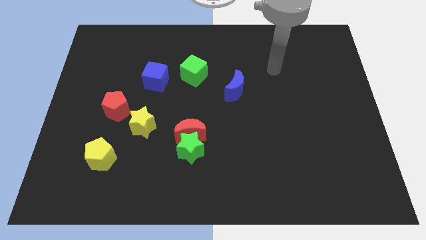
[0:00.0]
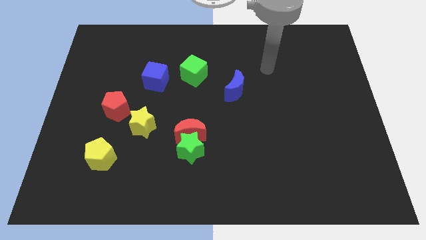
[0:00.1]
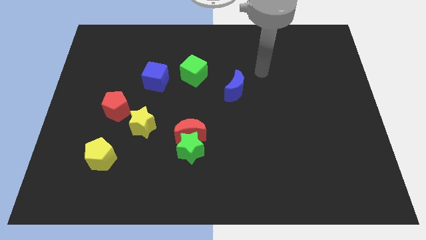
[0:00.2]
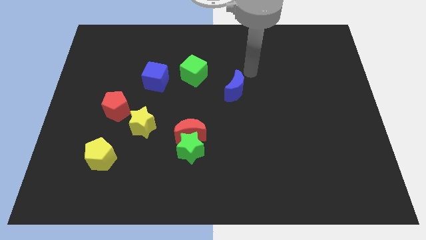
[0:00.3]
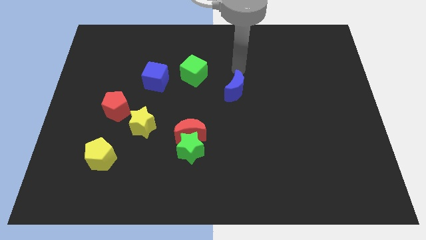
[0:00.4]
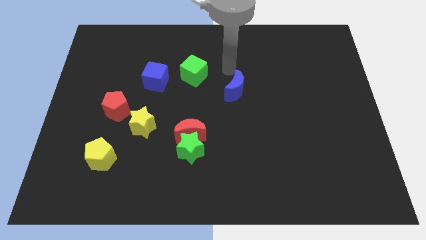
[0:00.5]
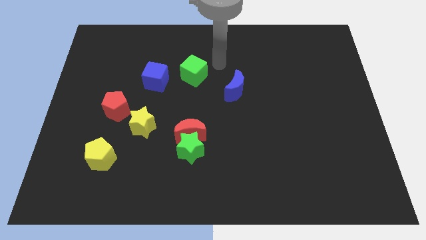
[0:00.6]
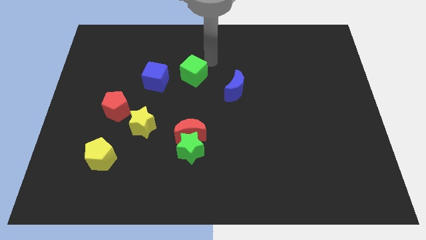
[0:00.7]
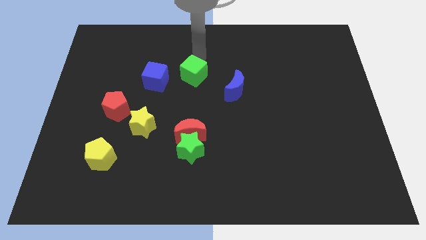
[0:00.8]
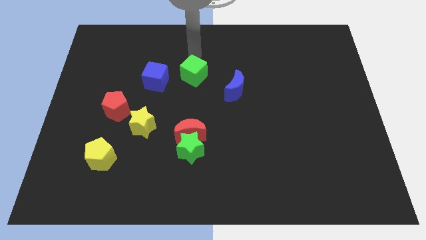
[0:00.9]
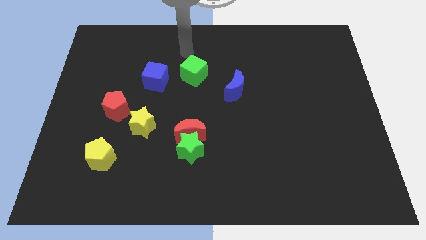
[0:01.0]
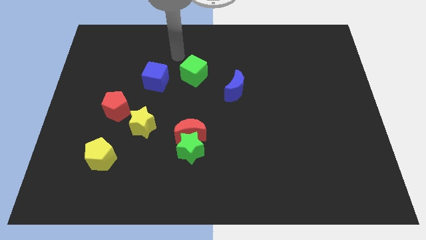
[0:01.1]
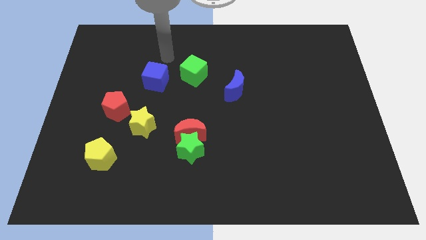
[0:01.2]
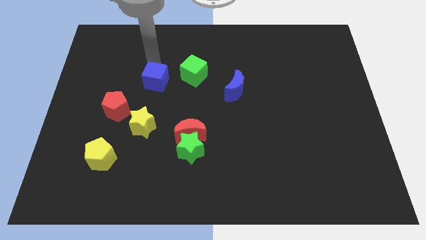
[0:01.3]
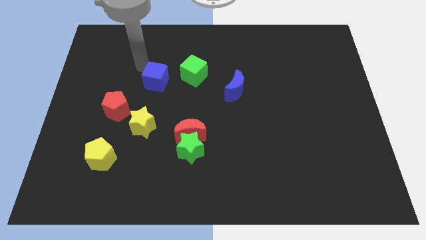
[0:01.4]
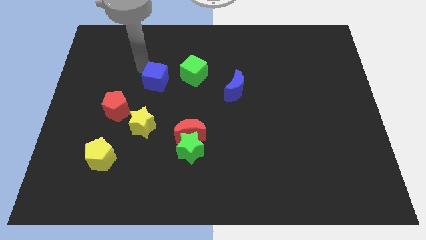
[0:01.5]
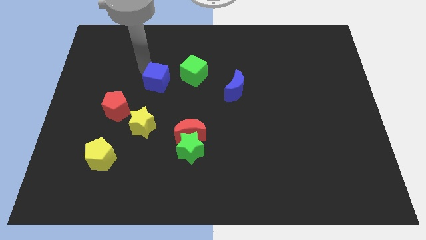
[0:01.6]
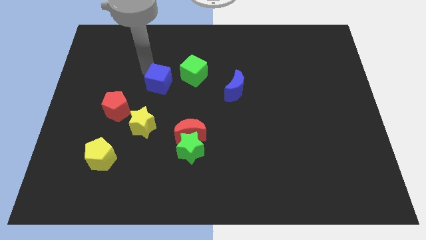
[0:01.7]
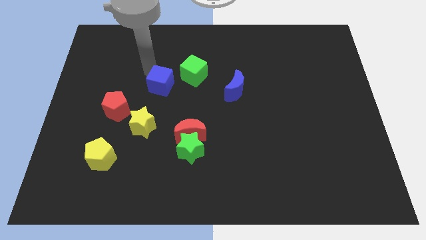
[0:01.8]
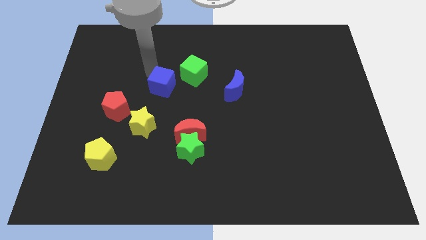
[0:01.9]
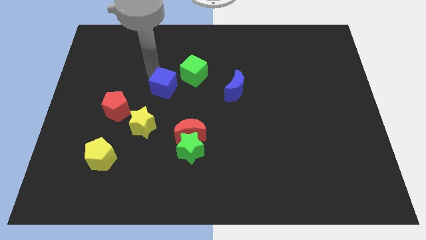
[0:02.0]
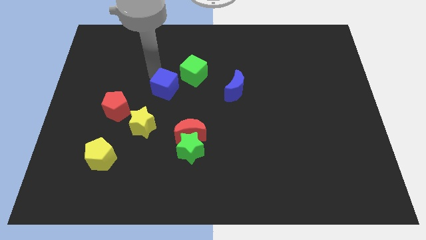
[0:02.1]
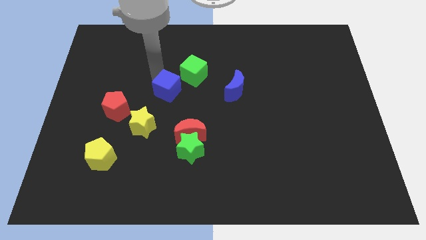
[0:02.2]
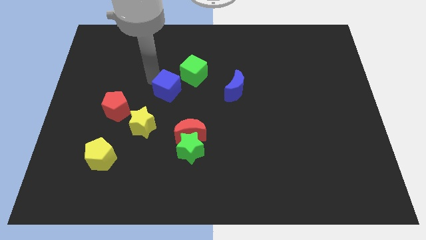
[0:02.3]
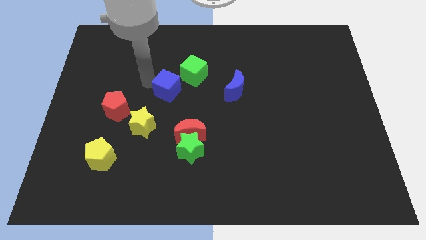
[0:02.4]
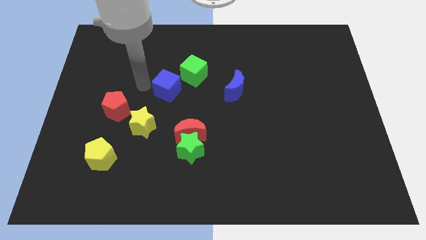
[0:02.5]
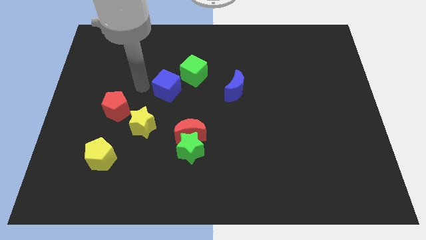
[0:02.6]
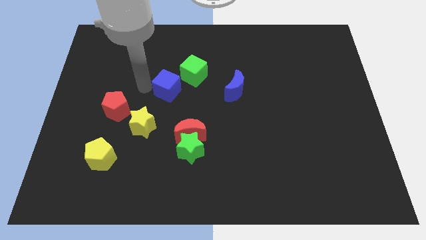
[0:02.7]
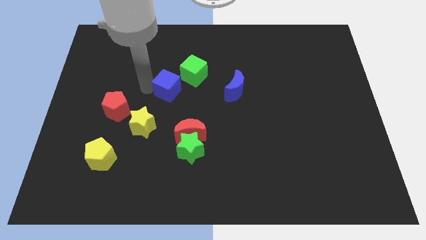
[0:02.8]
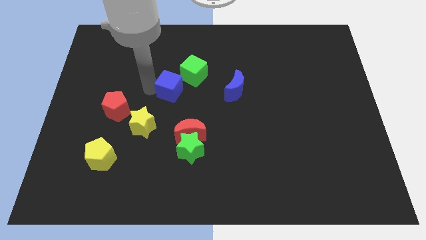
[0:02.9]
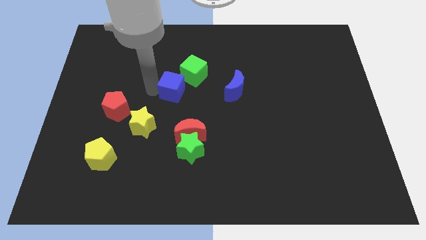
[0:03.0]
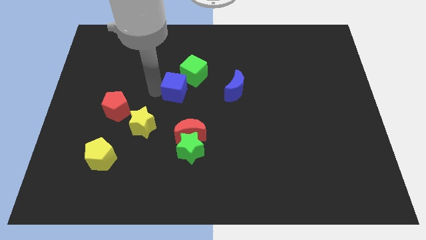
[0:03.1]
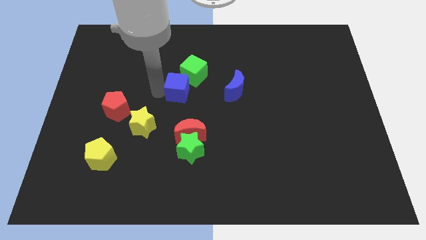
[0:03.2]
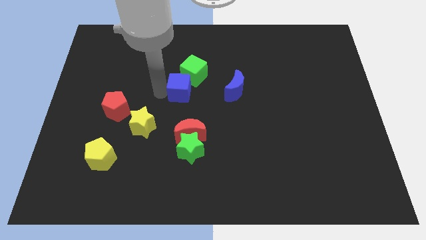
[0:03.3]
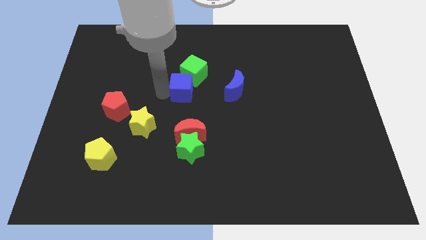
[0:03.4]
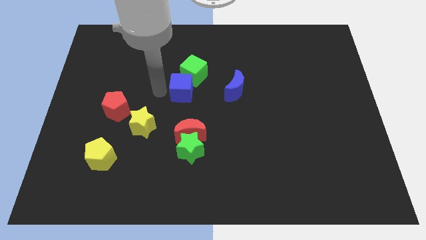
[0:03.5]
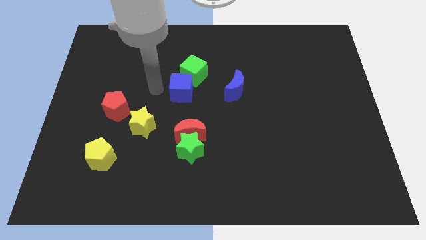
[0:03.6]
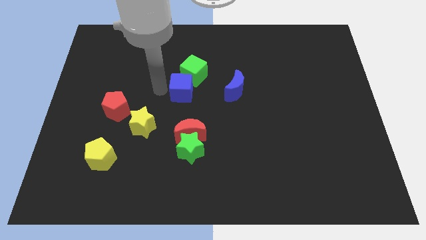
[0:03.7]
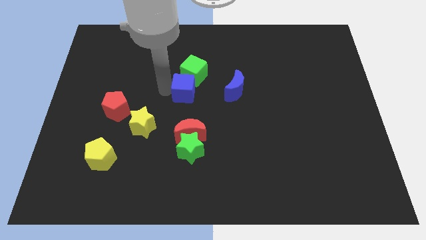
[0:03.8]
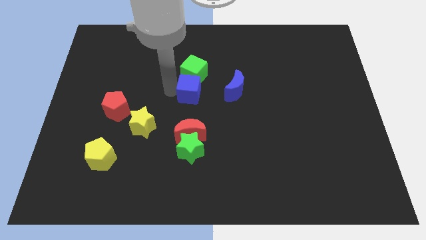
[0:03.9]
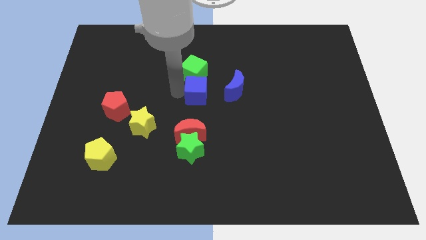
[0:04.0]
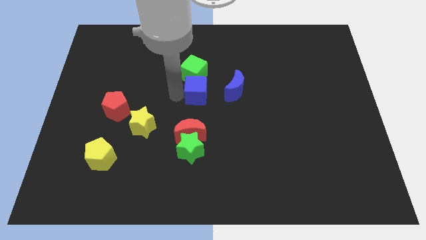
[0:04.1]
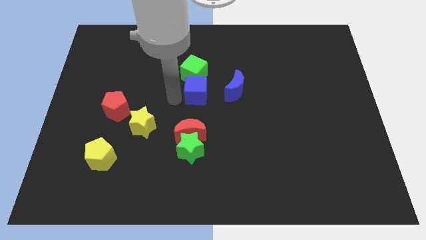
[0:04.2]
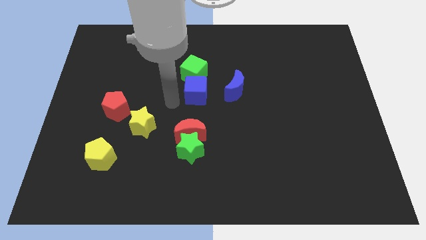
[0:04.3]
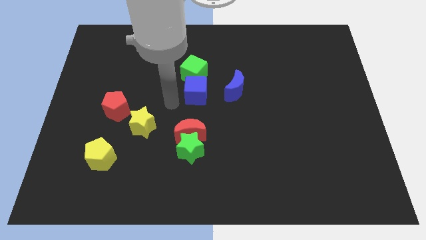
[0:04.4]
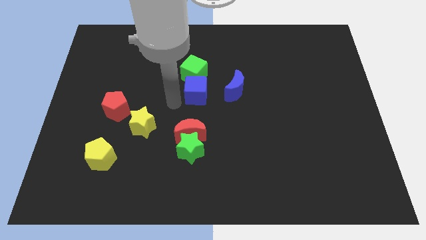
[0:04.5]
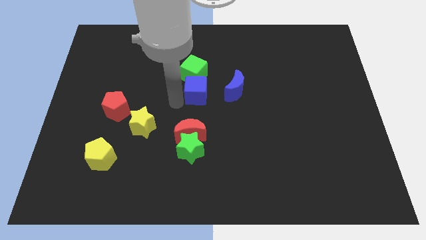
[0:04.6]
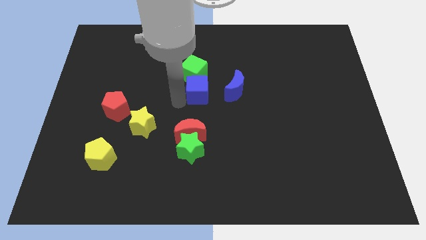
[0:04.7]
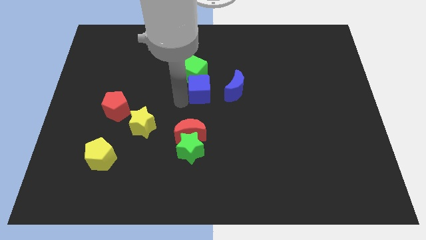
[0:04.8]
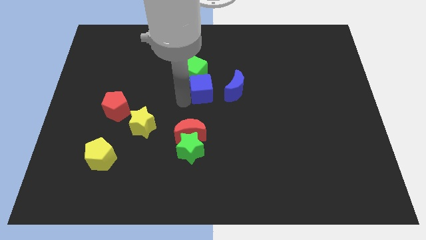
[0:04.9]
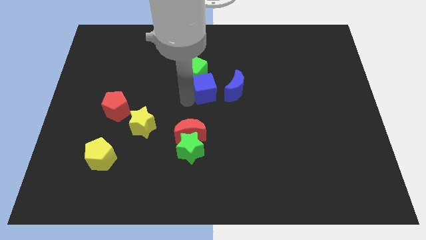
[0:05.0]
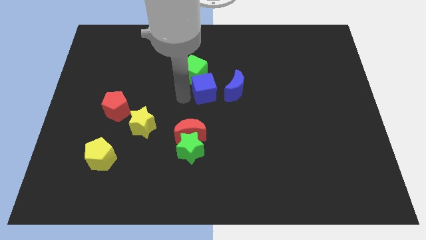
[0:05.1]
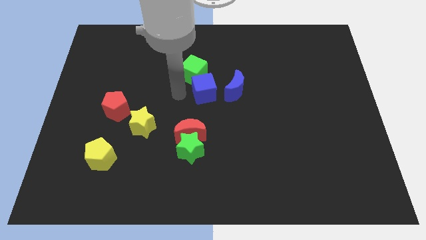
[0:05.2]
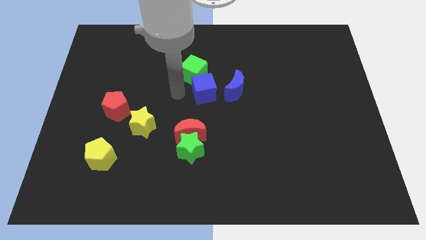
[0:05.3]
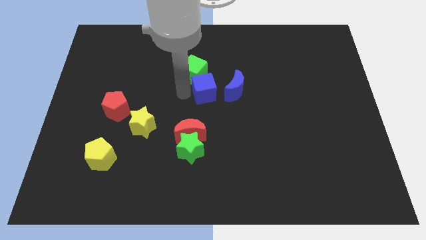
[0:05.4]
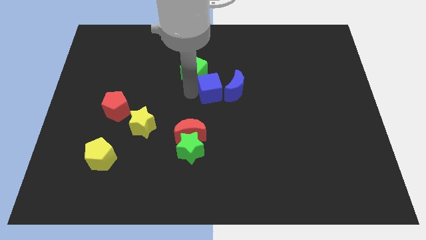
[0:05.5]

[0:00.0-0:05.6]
push the blue cube towards the blue moon

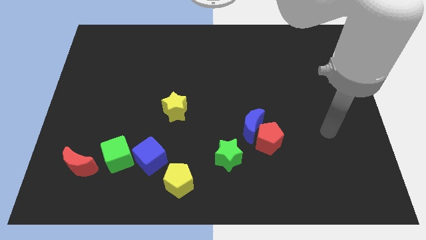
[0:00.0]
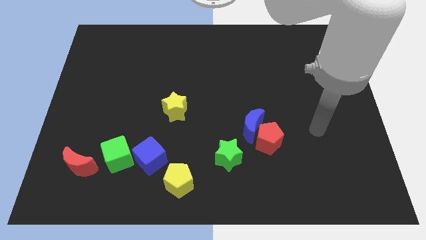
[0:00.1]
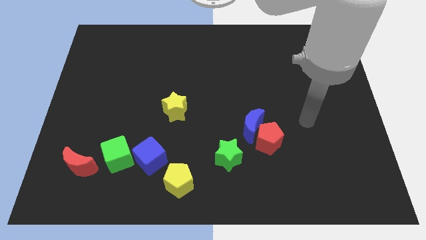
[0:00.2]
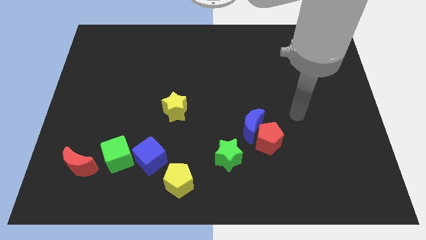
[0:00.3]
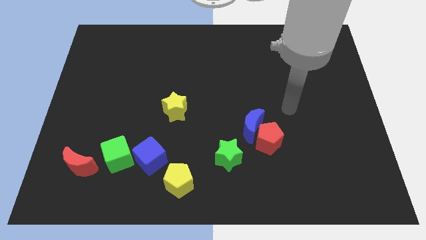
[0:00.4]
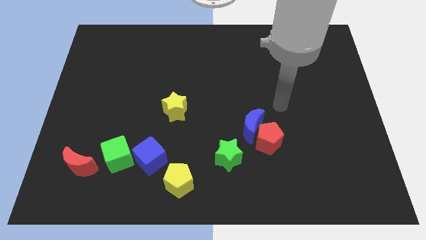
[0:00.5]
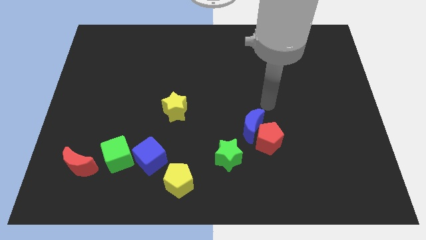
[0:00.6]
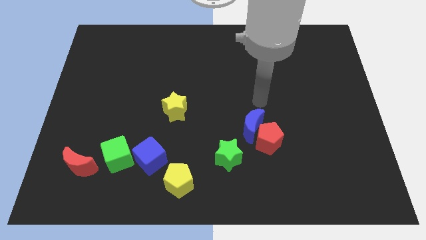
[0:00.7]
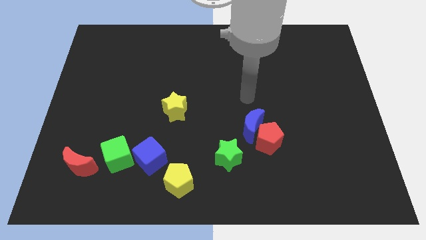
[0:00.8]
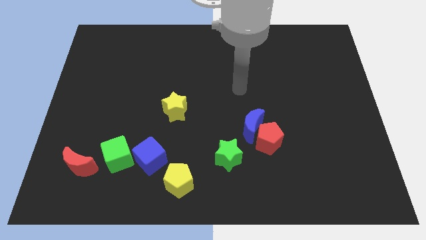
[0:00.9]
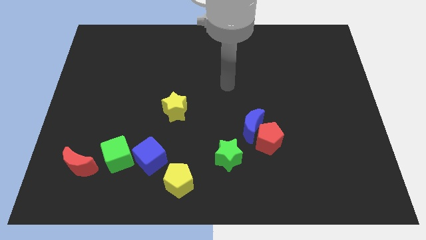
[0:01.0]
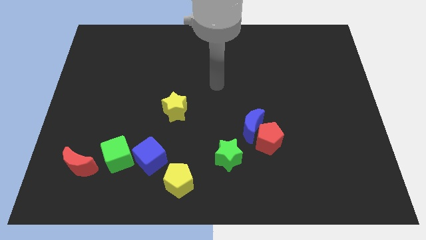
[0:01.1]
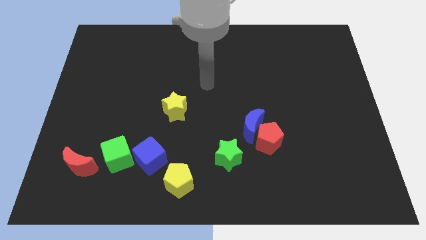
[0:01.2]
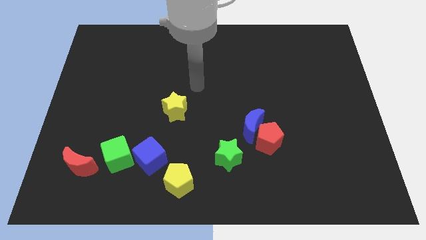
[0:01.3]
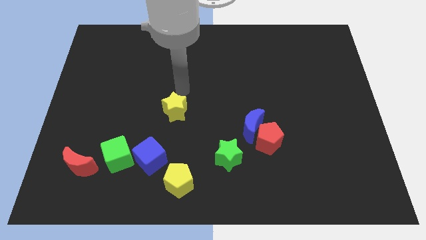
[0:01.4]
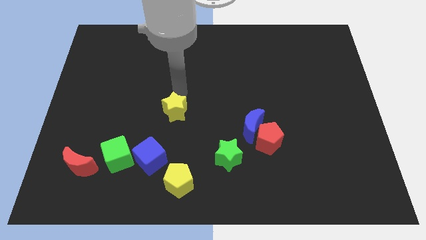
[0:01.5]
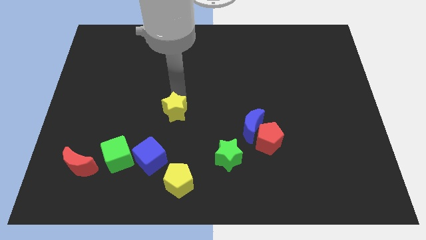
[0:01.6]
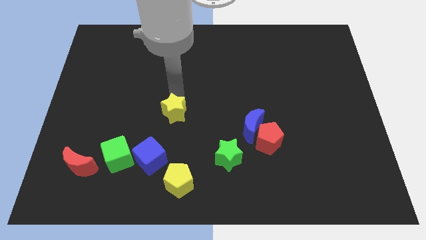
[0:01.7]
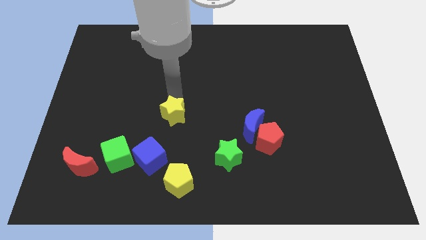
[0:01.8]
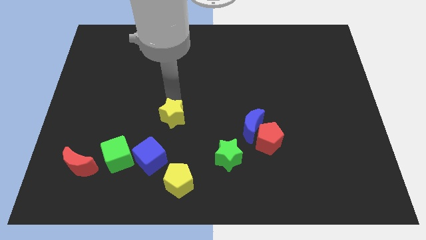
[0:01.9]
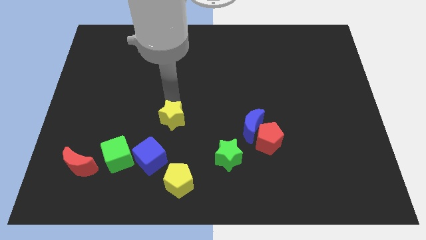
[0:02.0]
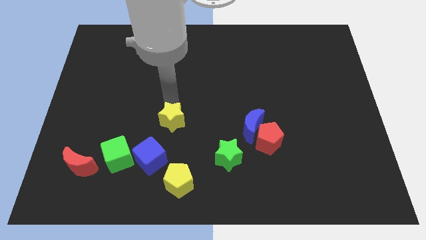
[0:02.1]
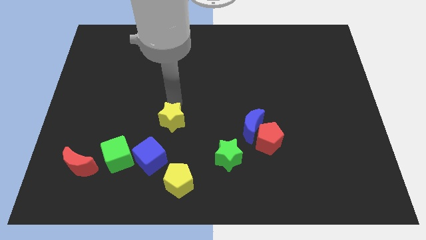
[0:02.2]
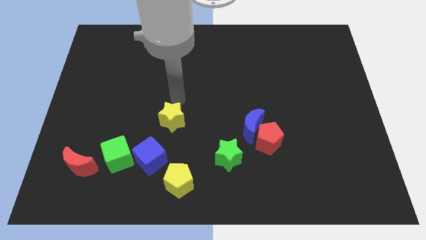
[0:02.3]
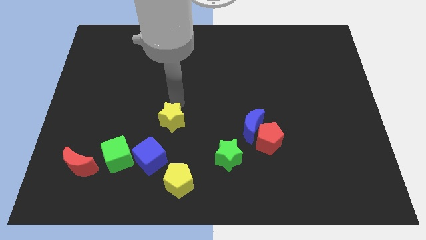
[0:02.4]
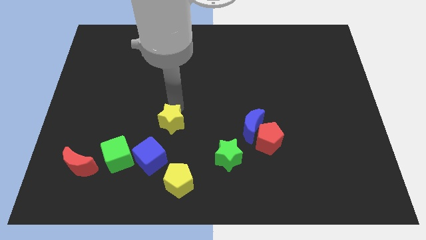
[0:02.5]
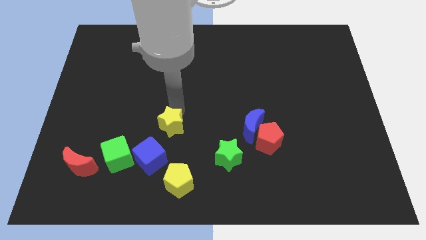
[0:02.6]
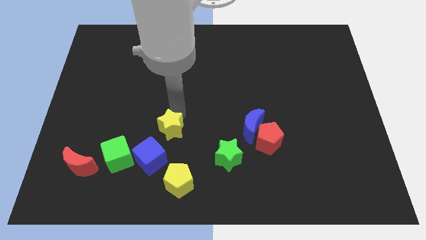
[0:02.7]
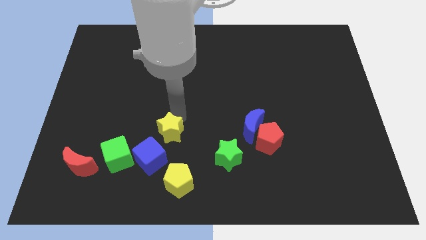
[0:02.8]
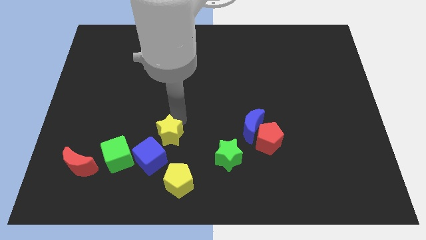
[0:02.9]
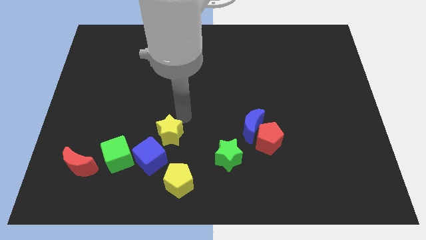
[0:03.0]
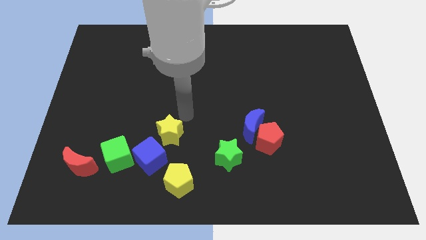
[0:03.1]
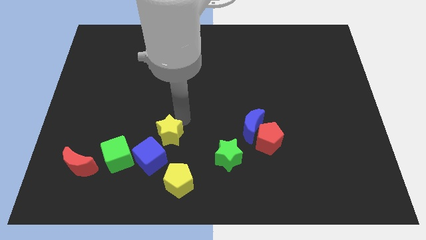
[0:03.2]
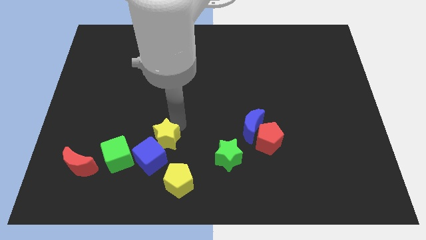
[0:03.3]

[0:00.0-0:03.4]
slide the yellow star next to the blue cube
